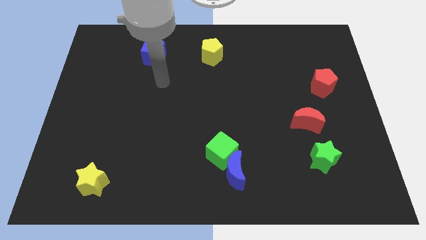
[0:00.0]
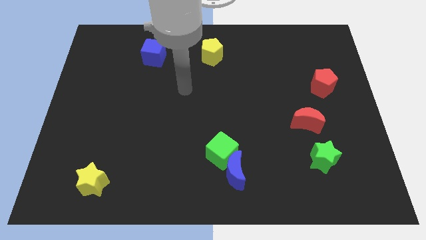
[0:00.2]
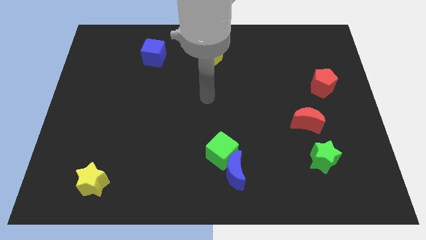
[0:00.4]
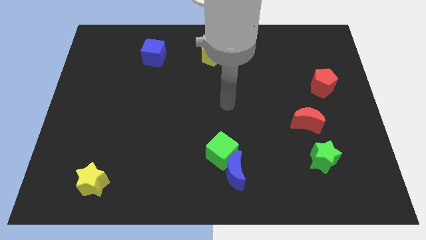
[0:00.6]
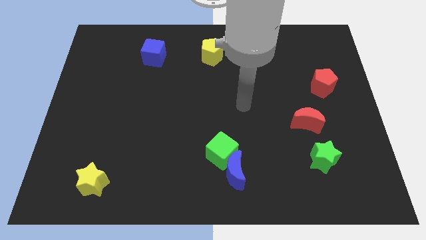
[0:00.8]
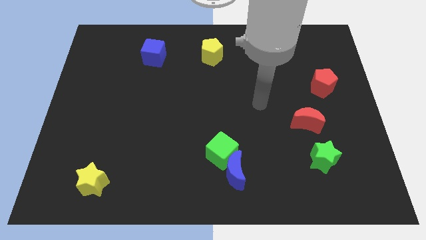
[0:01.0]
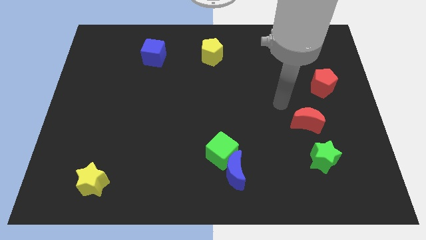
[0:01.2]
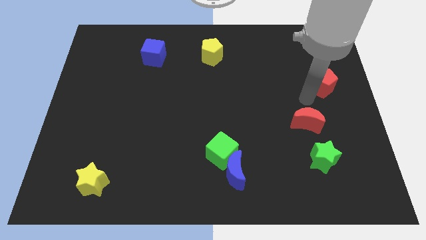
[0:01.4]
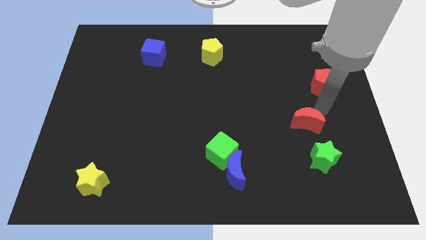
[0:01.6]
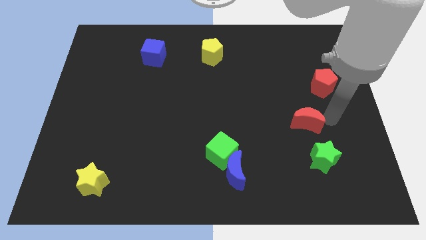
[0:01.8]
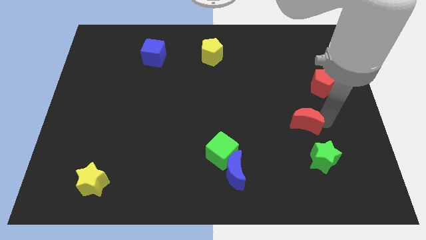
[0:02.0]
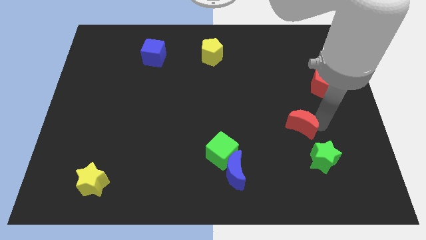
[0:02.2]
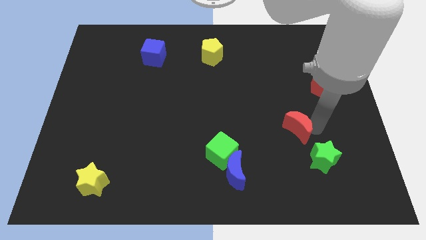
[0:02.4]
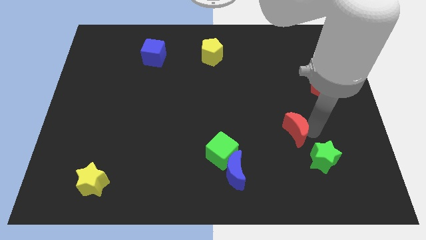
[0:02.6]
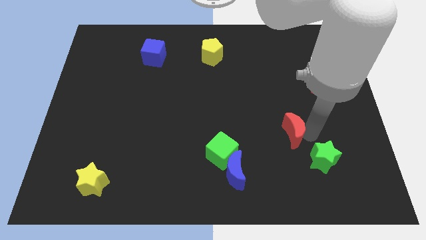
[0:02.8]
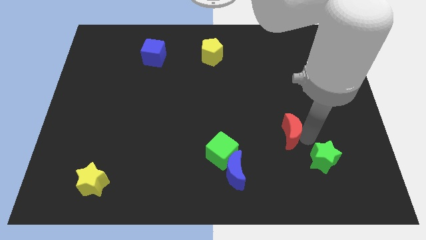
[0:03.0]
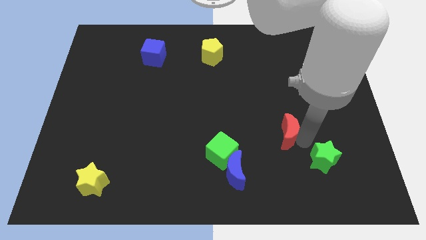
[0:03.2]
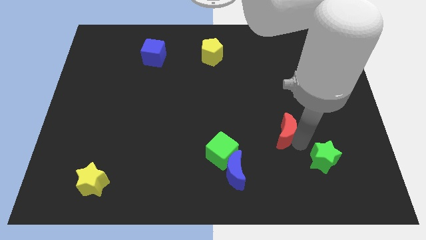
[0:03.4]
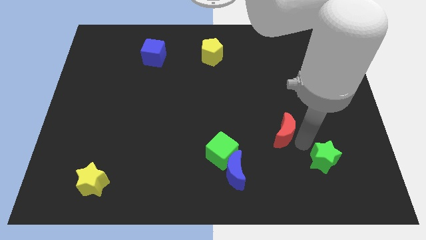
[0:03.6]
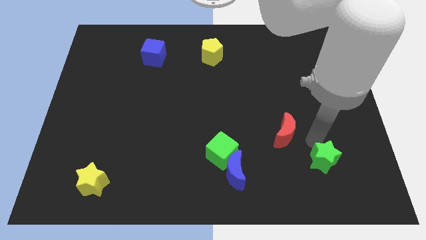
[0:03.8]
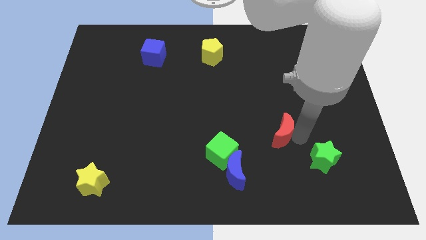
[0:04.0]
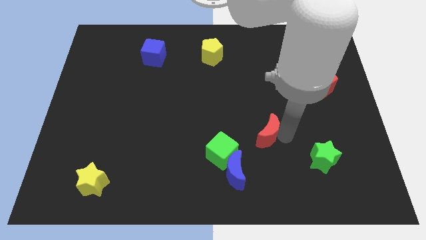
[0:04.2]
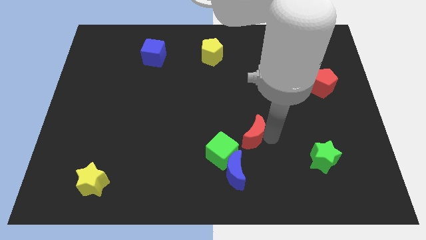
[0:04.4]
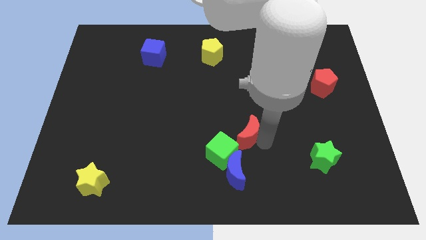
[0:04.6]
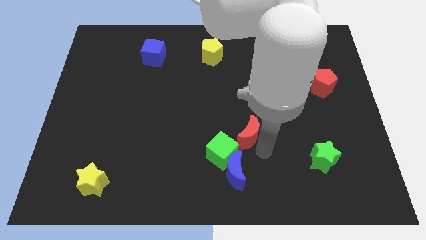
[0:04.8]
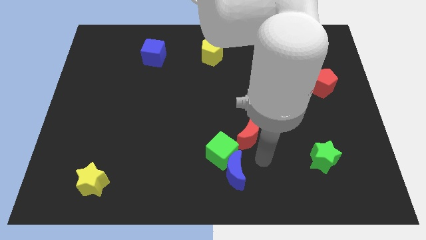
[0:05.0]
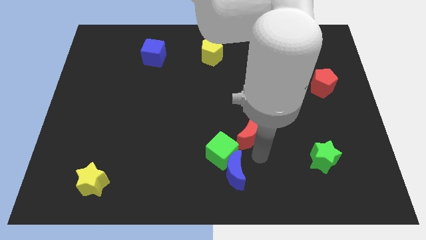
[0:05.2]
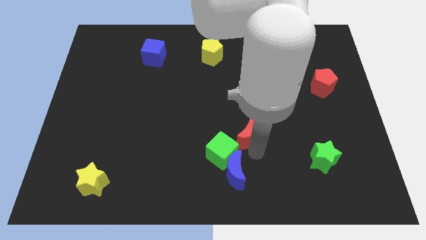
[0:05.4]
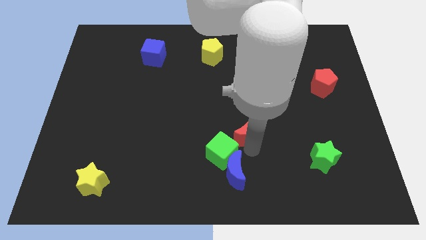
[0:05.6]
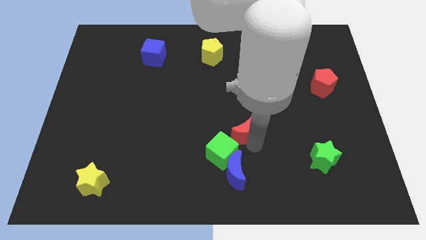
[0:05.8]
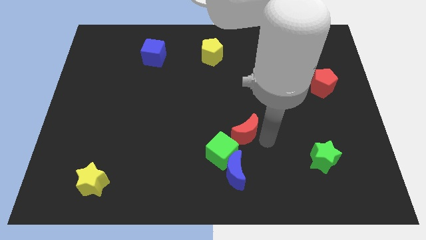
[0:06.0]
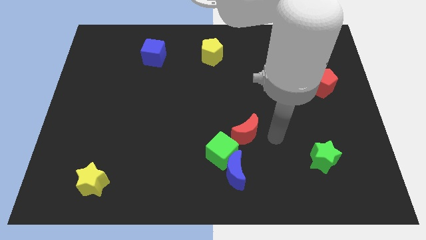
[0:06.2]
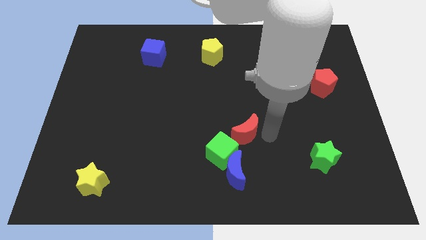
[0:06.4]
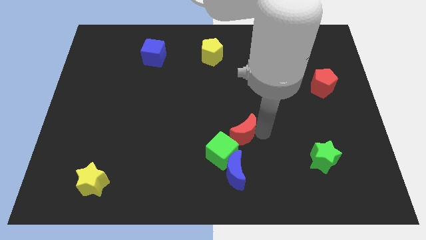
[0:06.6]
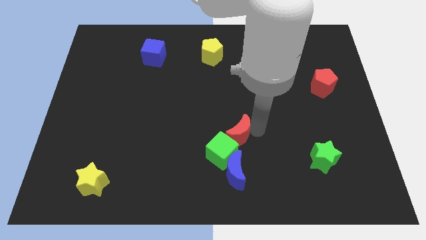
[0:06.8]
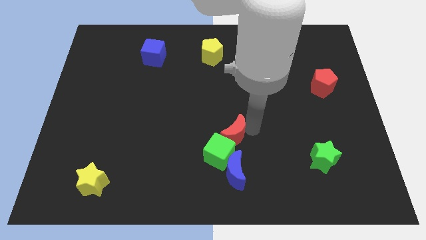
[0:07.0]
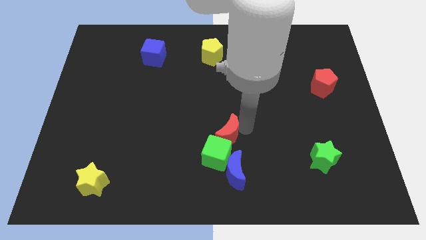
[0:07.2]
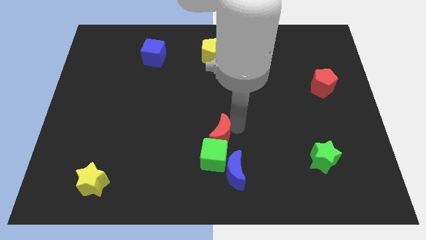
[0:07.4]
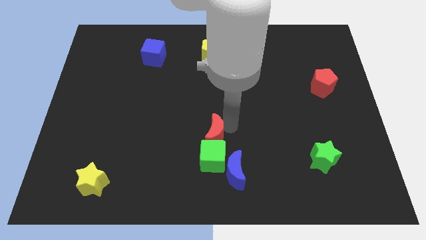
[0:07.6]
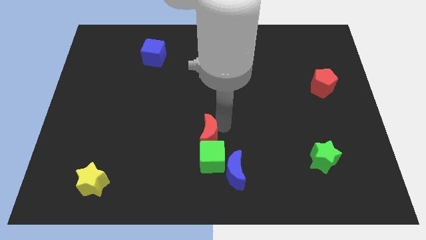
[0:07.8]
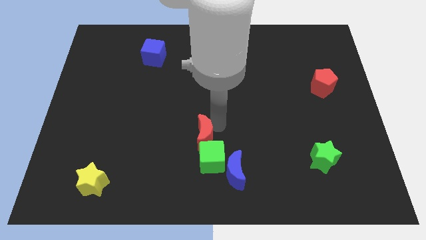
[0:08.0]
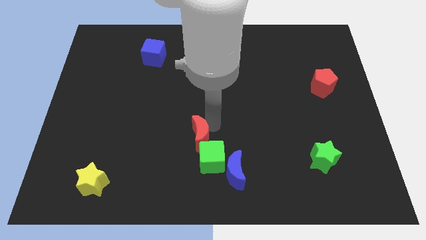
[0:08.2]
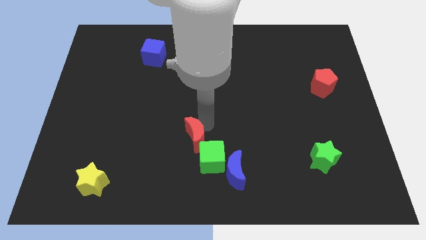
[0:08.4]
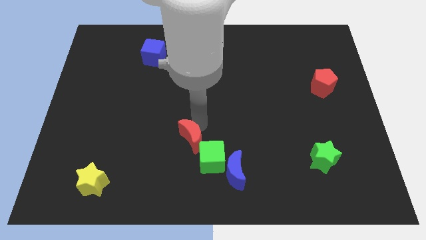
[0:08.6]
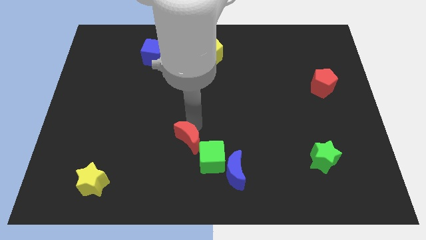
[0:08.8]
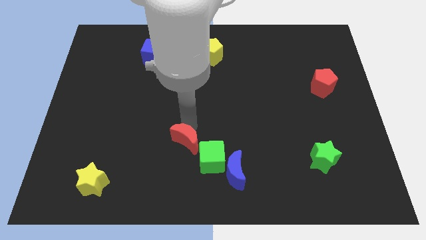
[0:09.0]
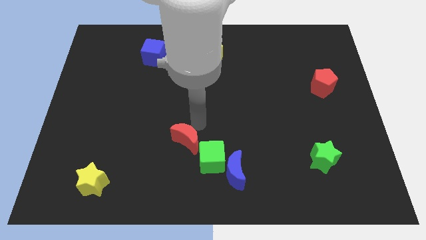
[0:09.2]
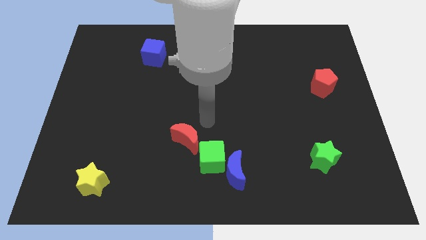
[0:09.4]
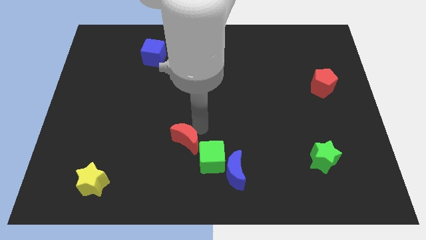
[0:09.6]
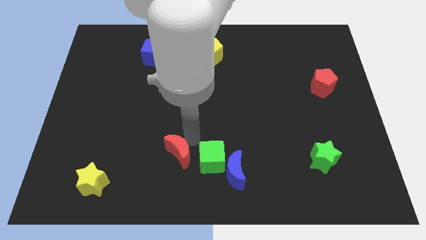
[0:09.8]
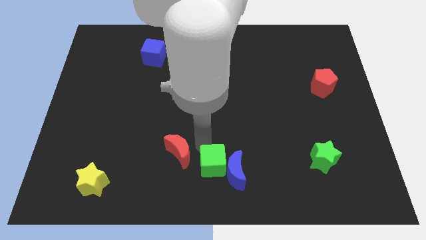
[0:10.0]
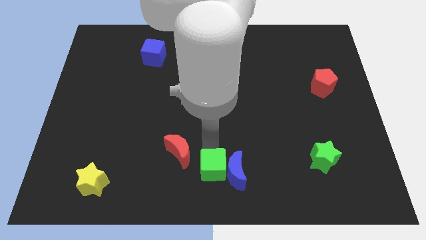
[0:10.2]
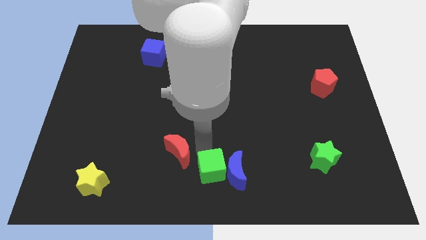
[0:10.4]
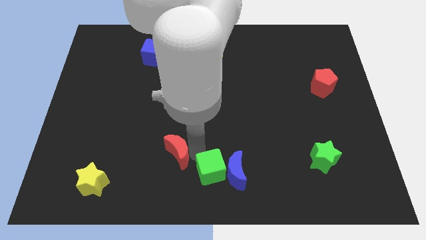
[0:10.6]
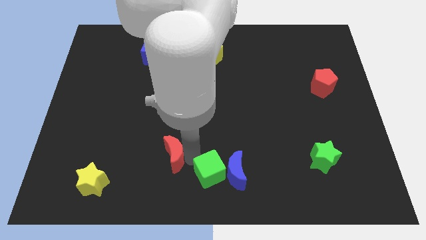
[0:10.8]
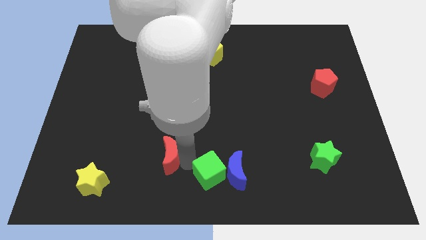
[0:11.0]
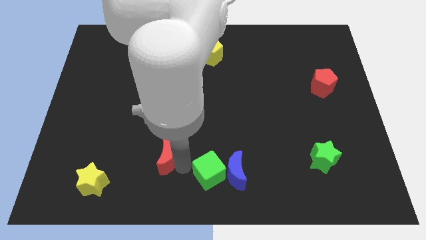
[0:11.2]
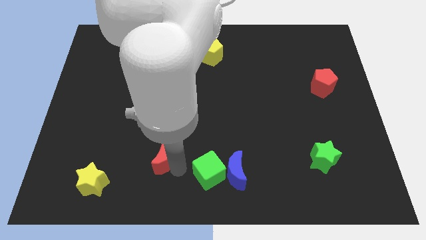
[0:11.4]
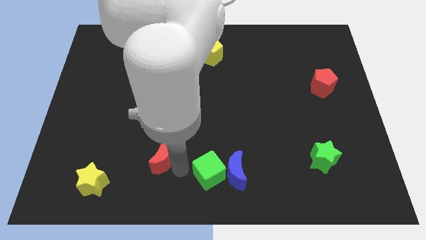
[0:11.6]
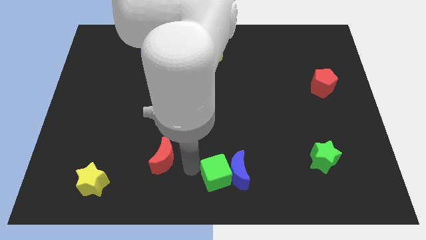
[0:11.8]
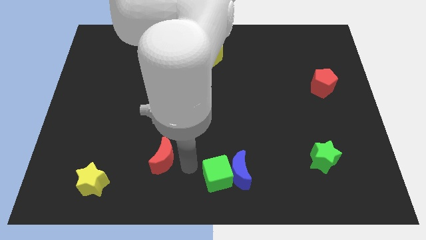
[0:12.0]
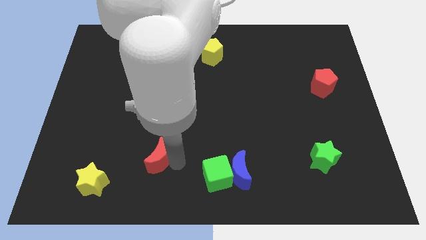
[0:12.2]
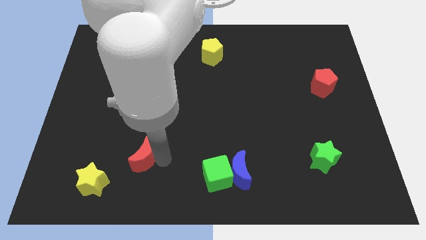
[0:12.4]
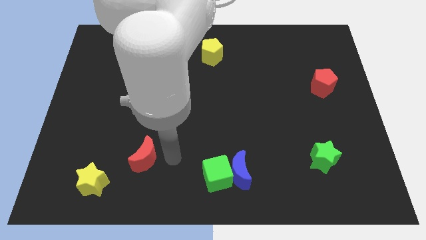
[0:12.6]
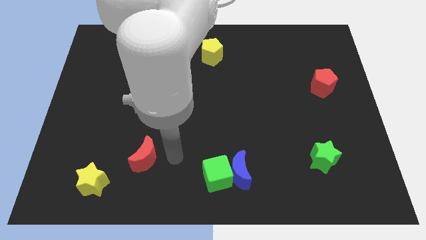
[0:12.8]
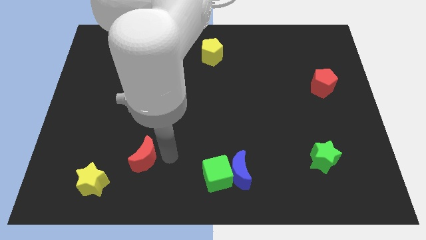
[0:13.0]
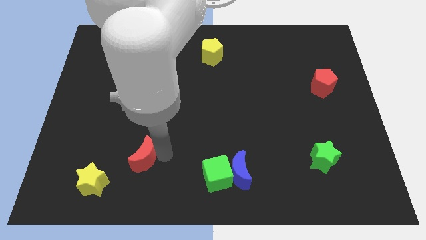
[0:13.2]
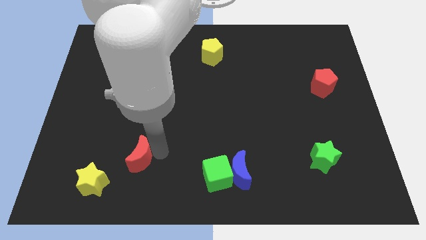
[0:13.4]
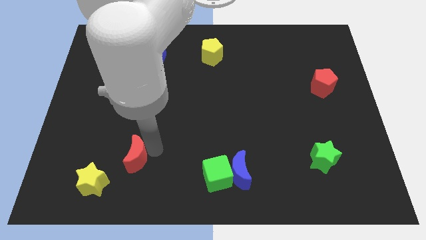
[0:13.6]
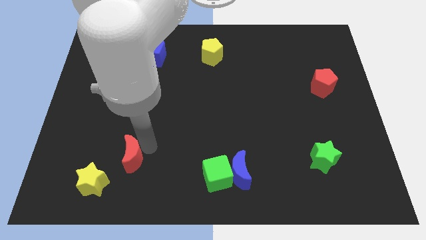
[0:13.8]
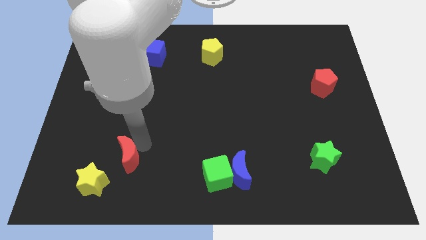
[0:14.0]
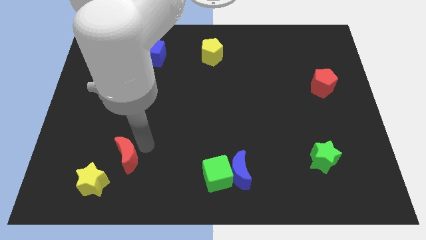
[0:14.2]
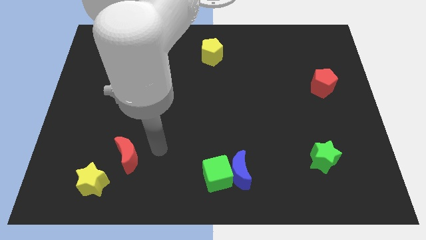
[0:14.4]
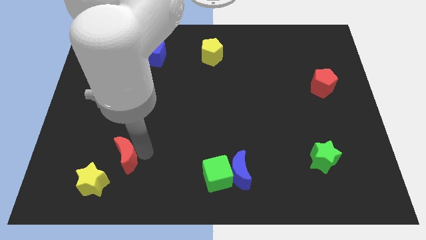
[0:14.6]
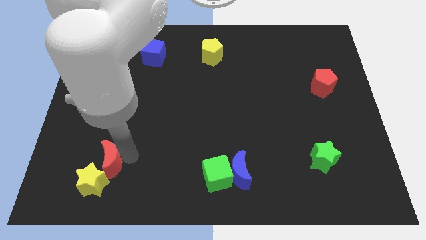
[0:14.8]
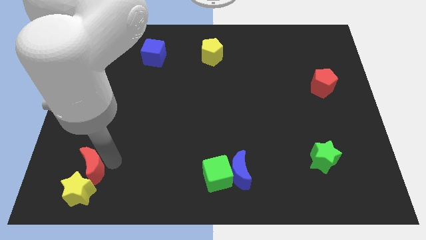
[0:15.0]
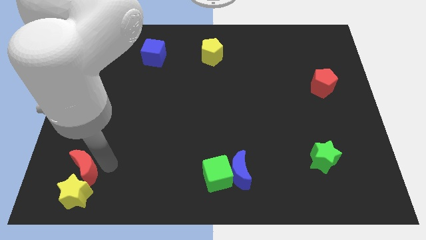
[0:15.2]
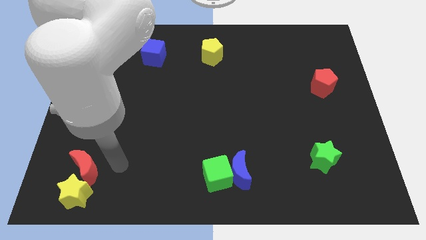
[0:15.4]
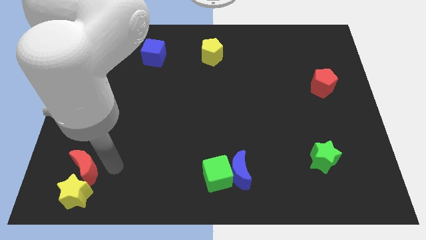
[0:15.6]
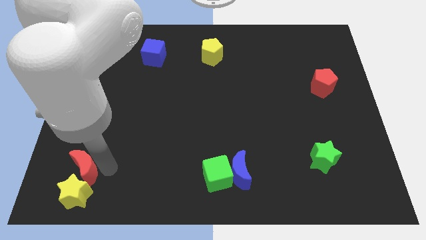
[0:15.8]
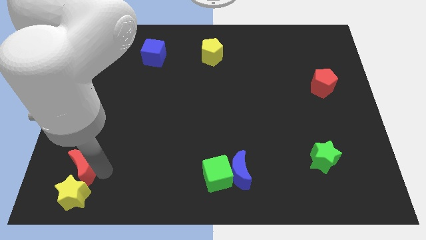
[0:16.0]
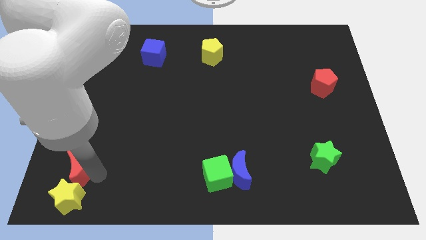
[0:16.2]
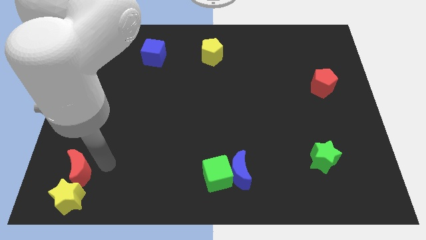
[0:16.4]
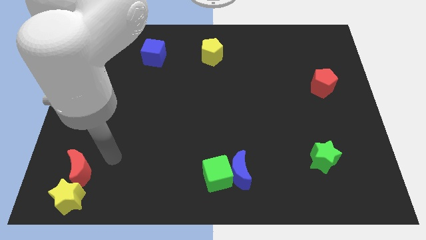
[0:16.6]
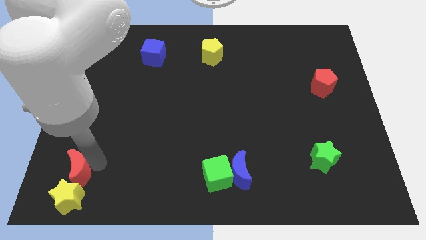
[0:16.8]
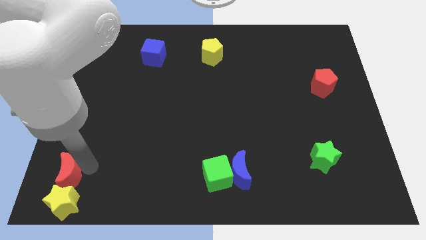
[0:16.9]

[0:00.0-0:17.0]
put the red moon to the lower left corner
